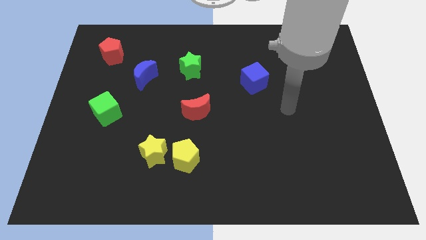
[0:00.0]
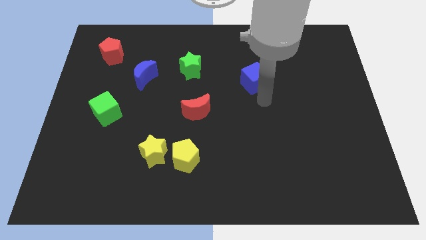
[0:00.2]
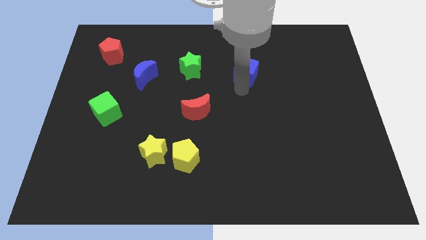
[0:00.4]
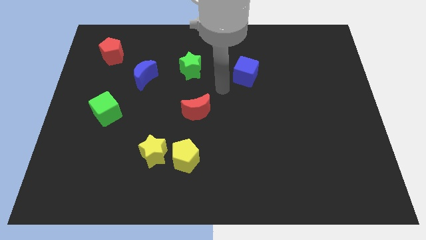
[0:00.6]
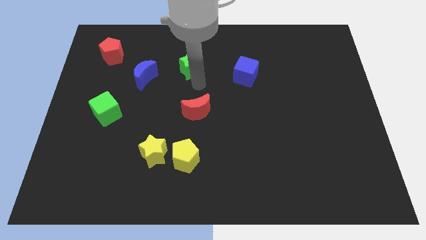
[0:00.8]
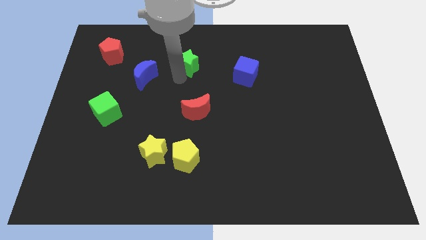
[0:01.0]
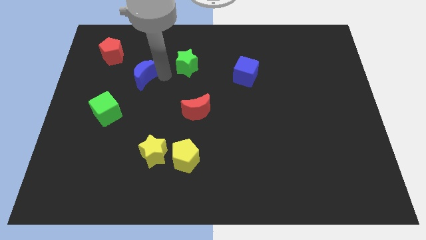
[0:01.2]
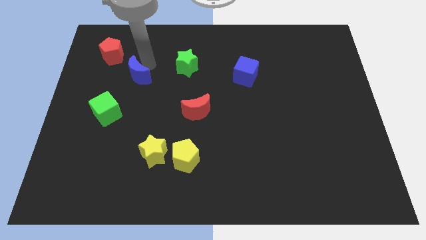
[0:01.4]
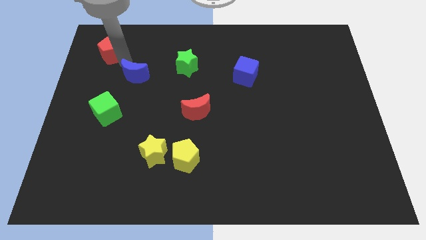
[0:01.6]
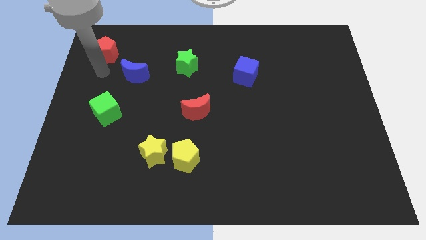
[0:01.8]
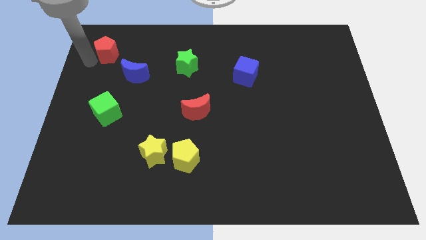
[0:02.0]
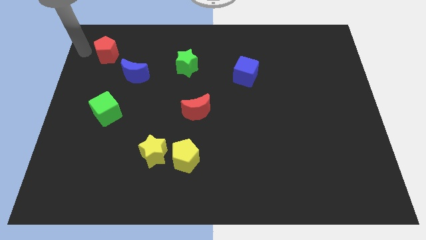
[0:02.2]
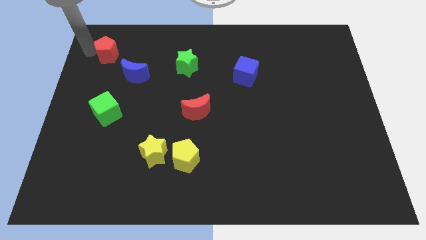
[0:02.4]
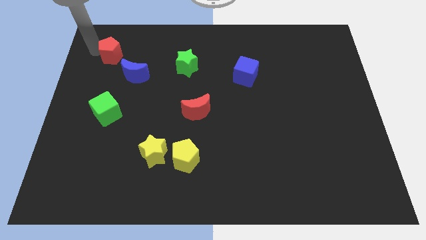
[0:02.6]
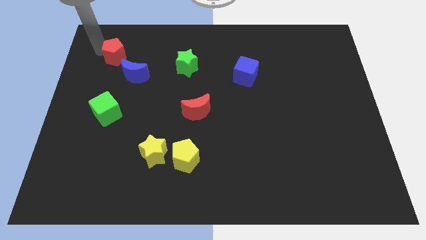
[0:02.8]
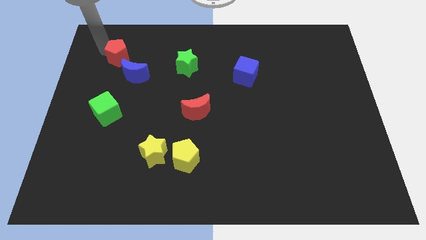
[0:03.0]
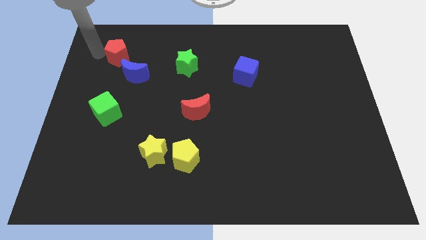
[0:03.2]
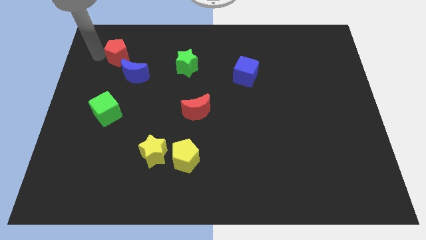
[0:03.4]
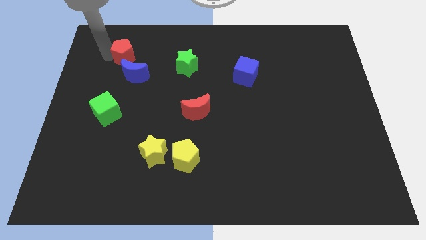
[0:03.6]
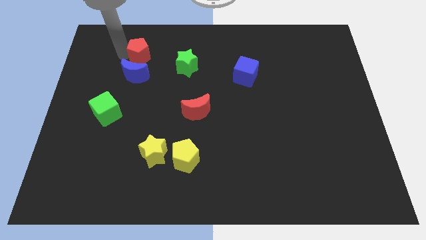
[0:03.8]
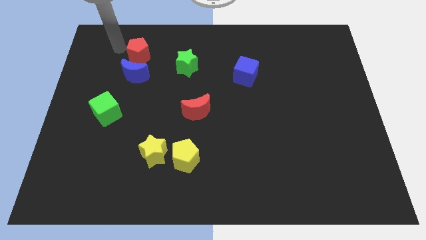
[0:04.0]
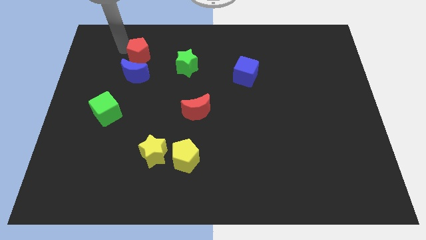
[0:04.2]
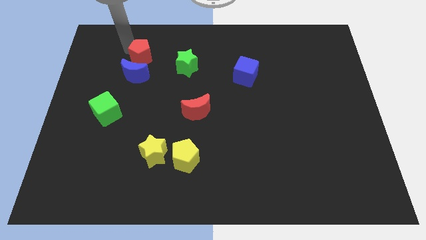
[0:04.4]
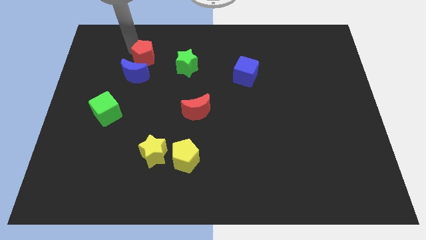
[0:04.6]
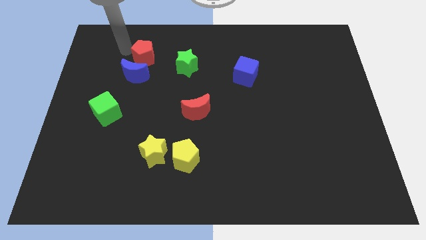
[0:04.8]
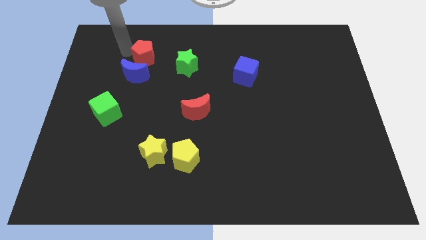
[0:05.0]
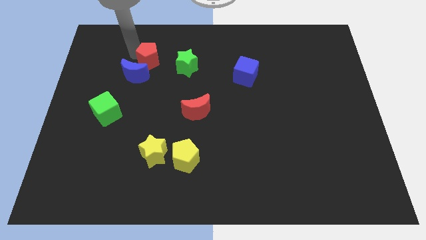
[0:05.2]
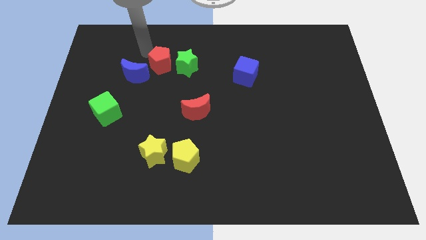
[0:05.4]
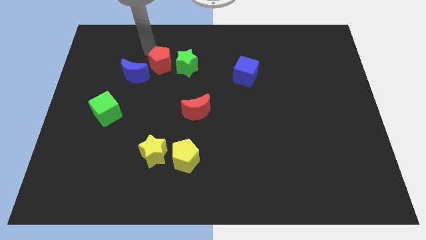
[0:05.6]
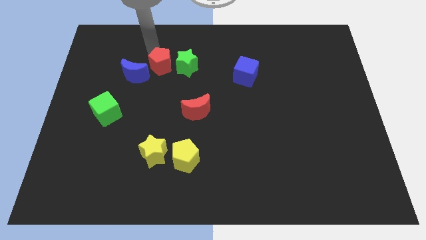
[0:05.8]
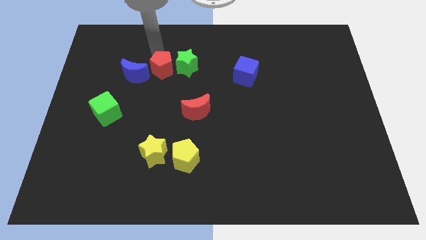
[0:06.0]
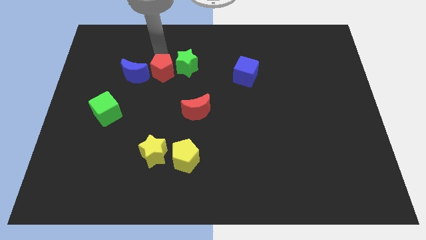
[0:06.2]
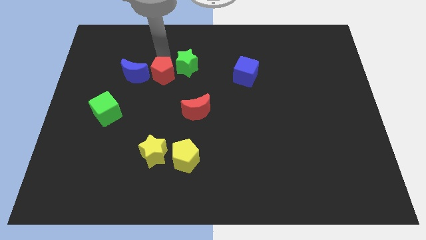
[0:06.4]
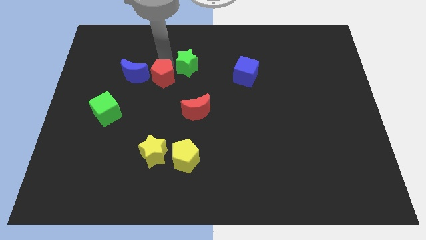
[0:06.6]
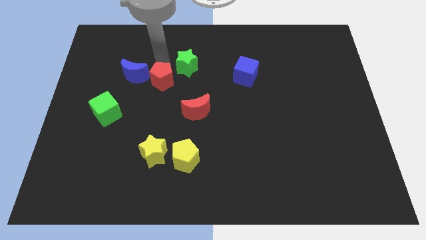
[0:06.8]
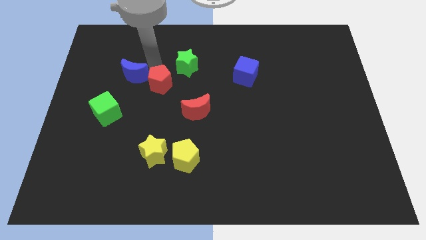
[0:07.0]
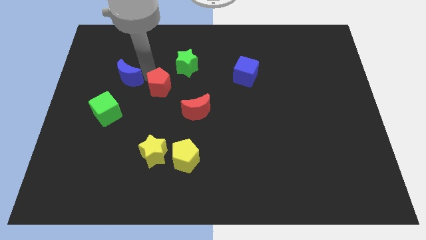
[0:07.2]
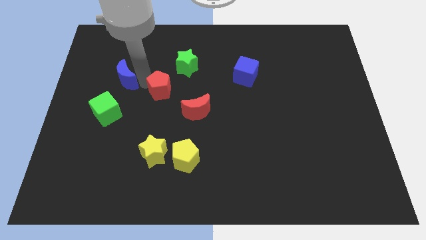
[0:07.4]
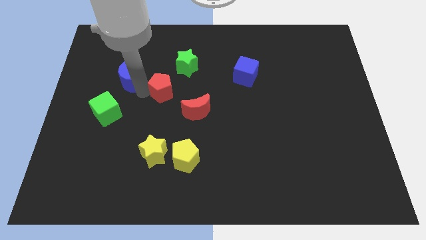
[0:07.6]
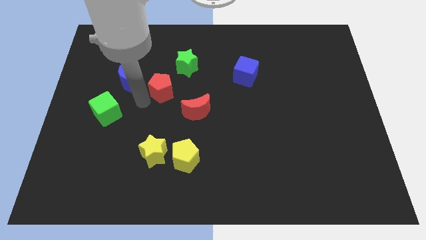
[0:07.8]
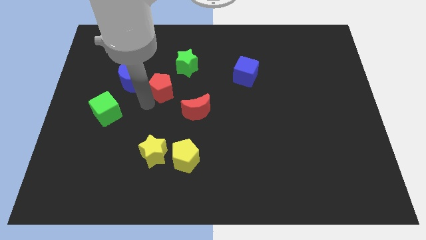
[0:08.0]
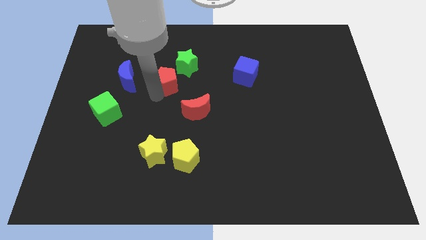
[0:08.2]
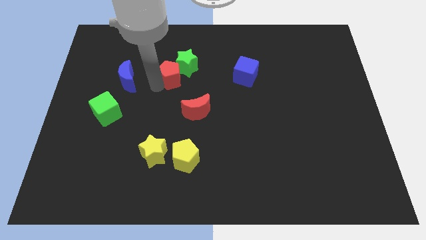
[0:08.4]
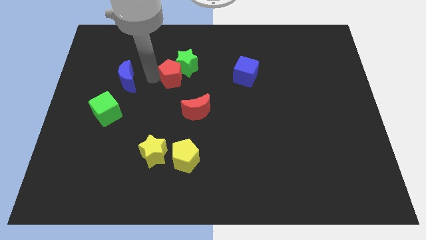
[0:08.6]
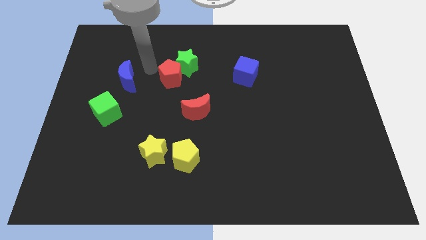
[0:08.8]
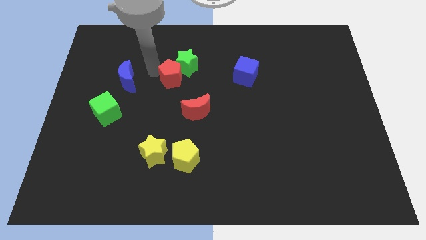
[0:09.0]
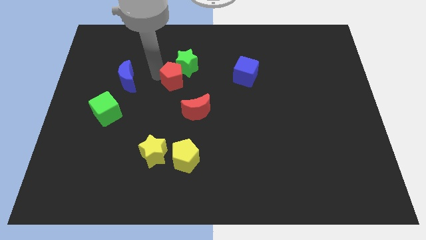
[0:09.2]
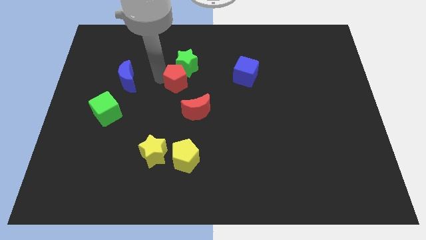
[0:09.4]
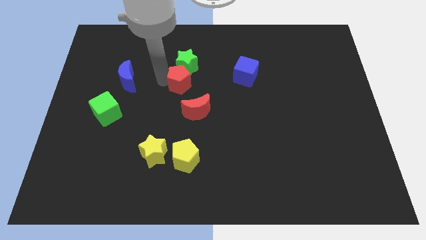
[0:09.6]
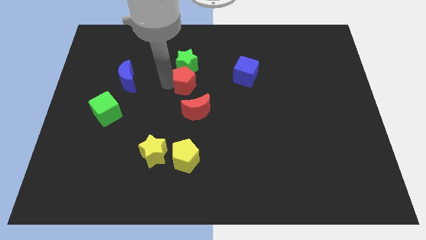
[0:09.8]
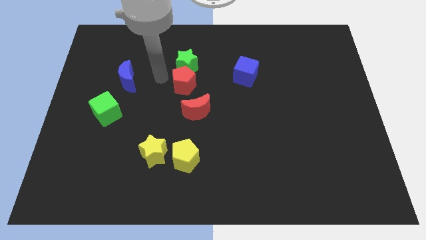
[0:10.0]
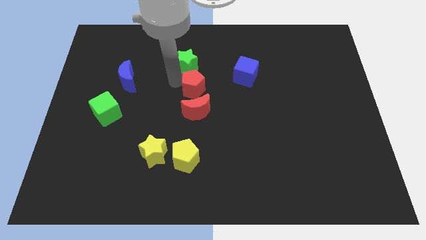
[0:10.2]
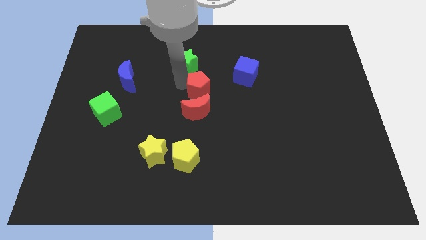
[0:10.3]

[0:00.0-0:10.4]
slide the red pentagon to the top right of the red moon

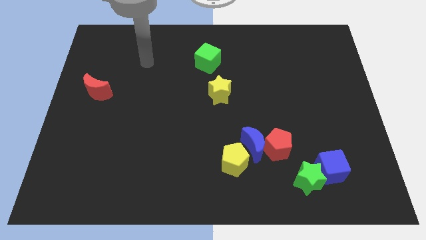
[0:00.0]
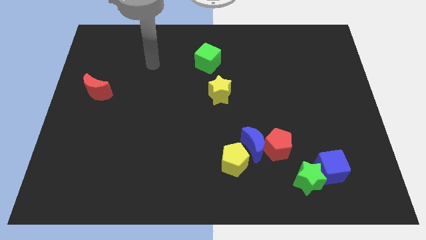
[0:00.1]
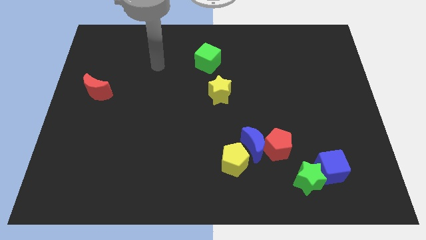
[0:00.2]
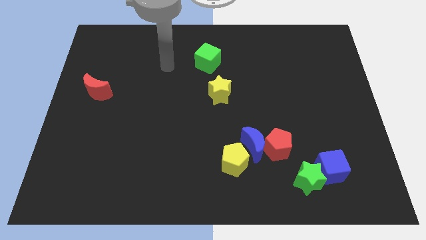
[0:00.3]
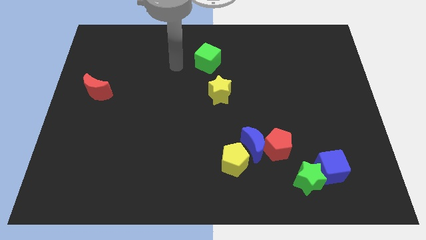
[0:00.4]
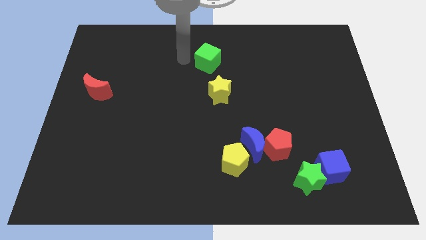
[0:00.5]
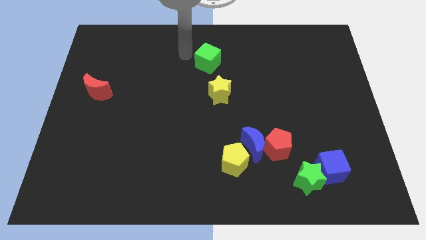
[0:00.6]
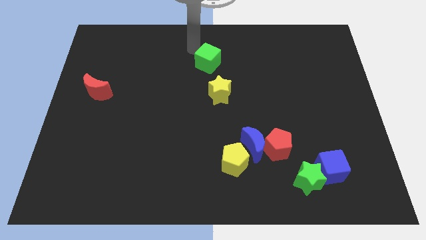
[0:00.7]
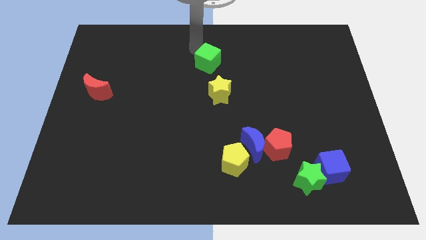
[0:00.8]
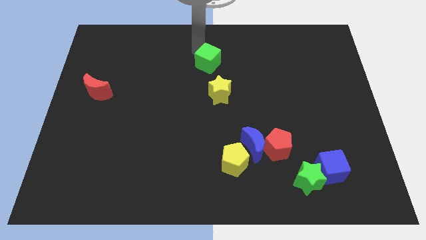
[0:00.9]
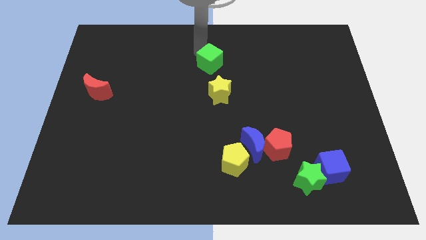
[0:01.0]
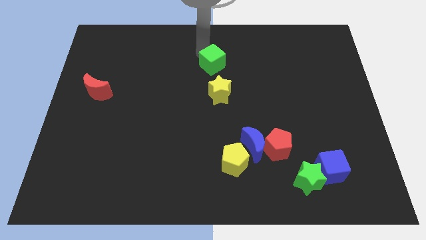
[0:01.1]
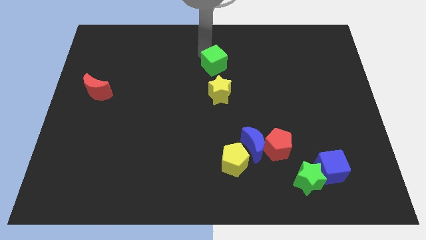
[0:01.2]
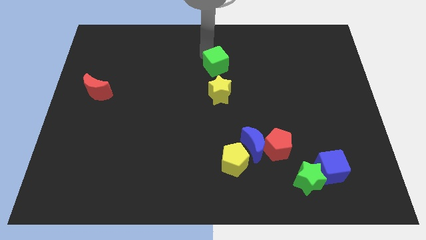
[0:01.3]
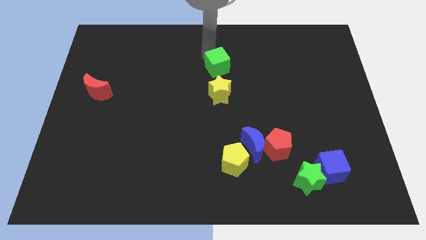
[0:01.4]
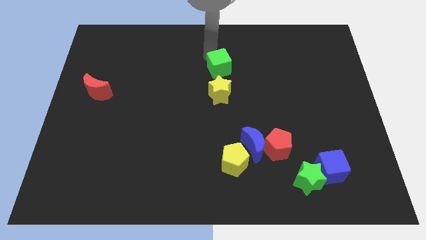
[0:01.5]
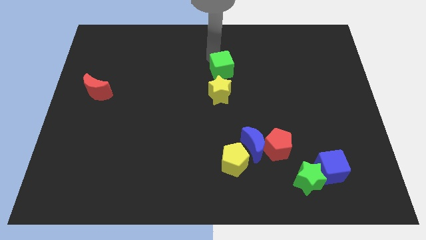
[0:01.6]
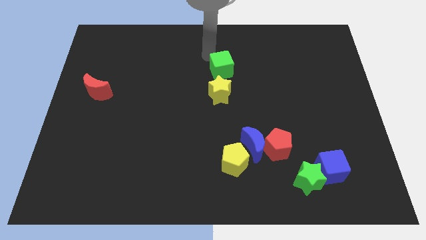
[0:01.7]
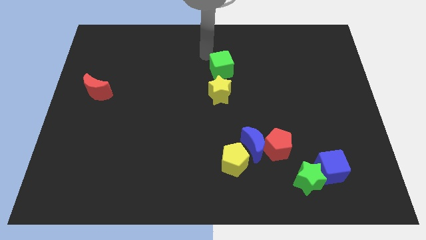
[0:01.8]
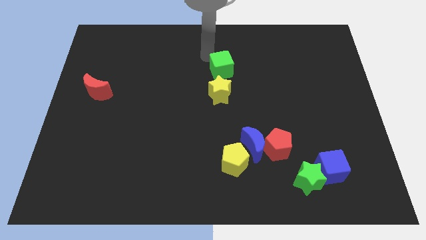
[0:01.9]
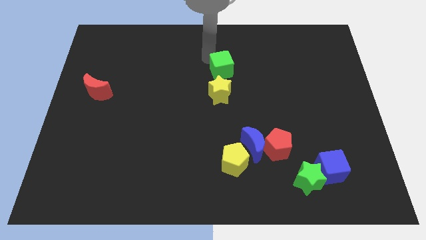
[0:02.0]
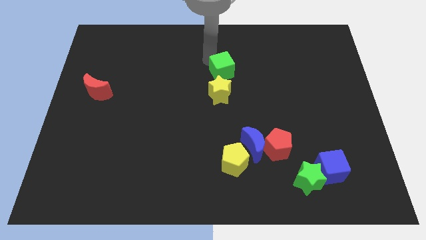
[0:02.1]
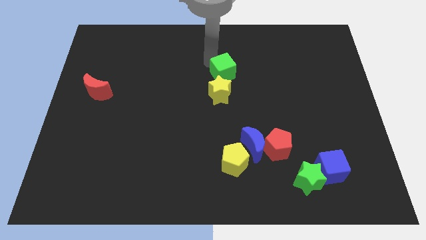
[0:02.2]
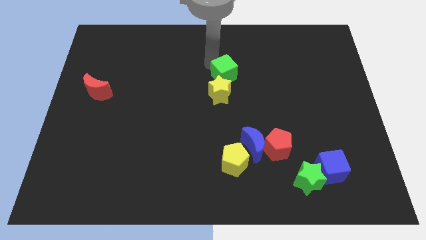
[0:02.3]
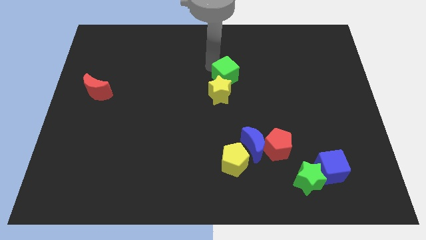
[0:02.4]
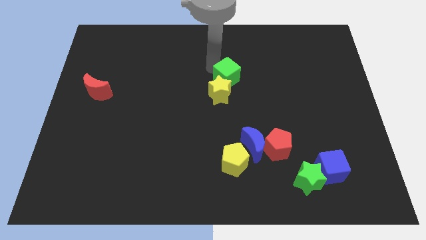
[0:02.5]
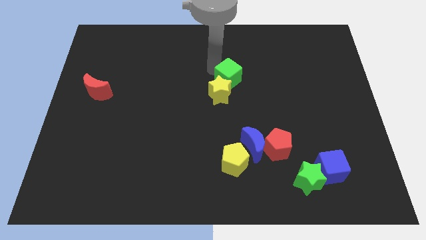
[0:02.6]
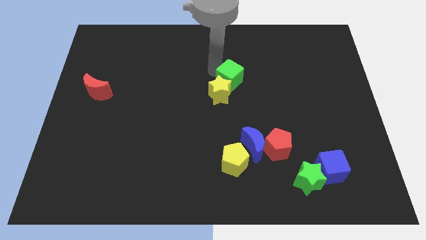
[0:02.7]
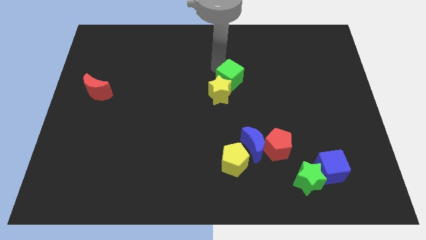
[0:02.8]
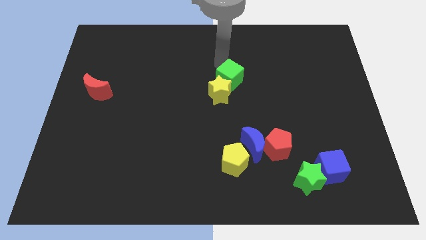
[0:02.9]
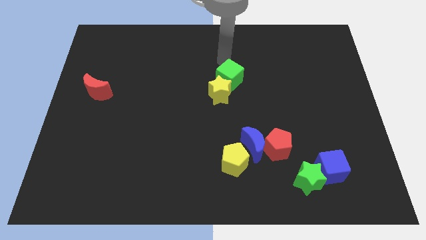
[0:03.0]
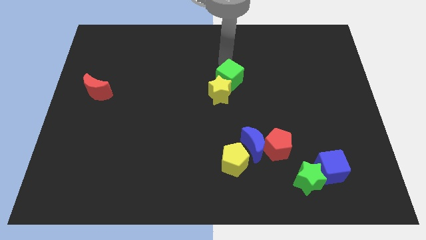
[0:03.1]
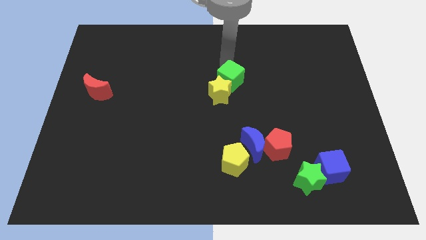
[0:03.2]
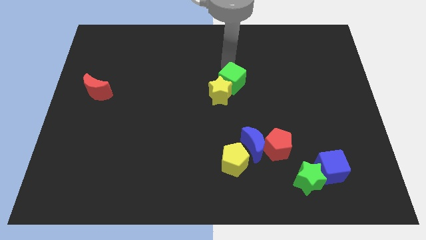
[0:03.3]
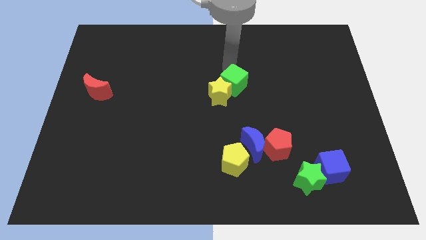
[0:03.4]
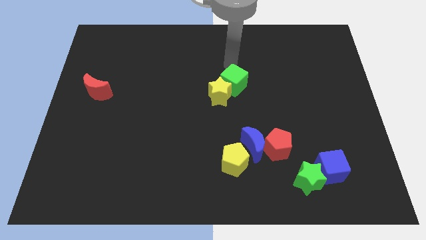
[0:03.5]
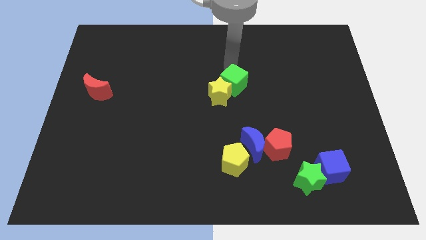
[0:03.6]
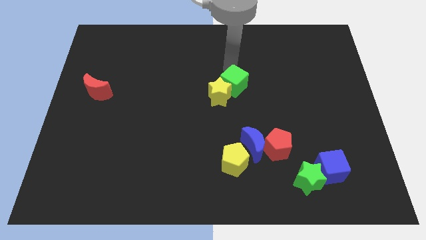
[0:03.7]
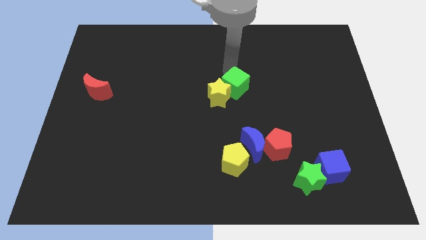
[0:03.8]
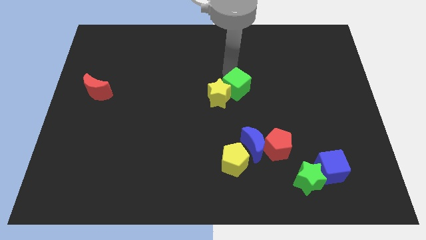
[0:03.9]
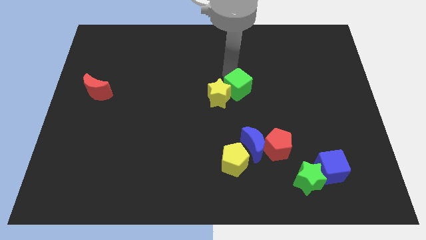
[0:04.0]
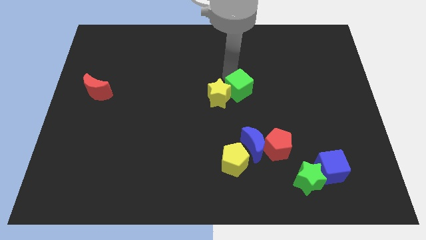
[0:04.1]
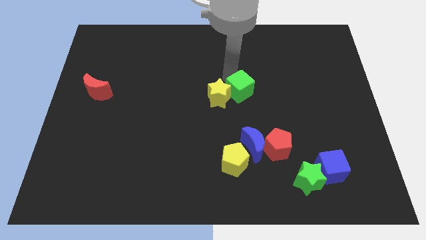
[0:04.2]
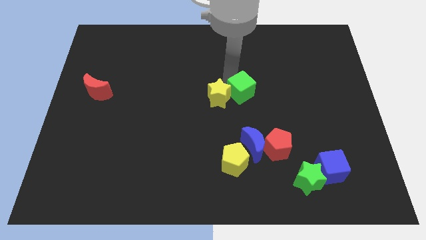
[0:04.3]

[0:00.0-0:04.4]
put the green cube to the top side of the blue moon
